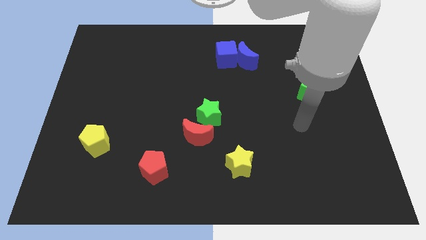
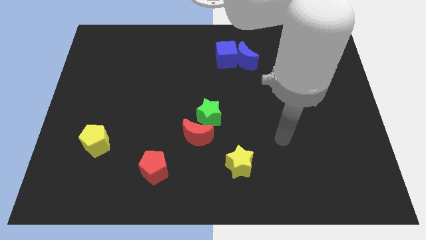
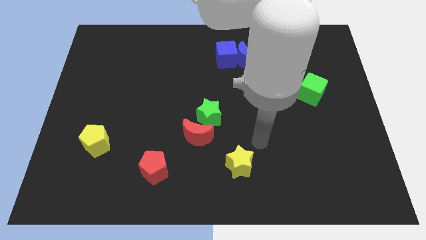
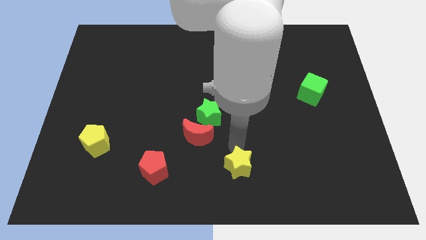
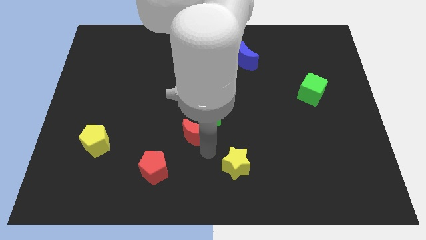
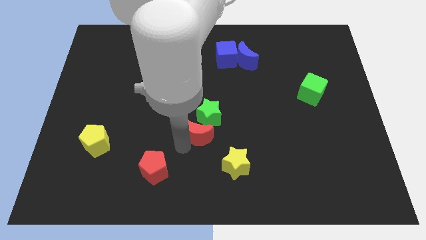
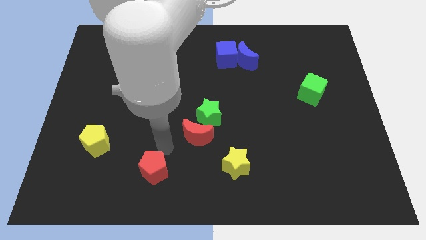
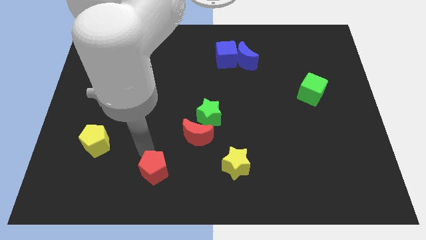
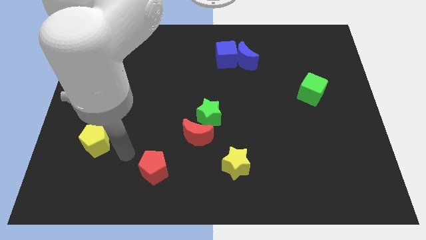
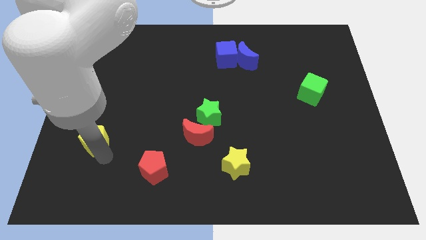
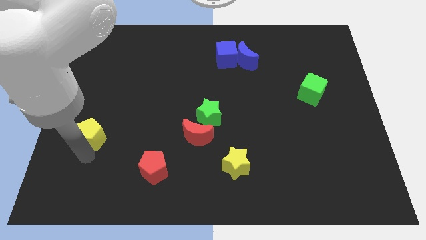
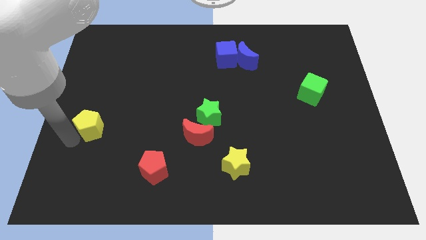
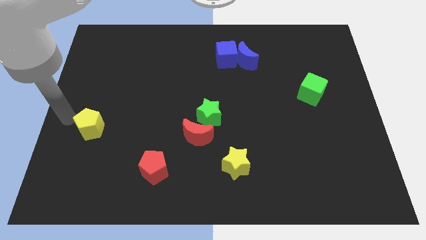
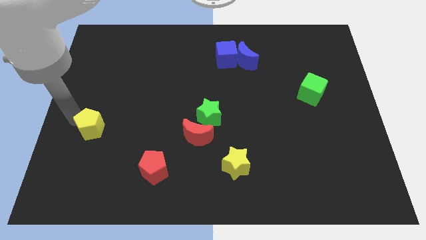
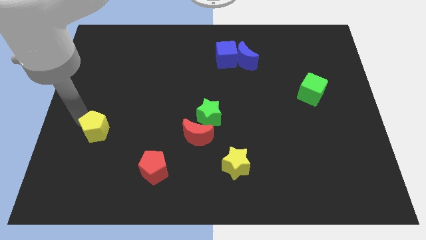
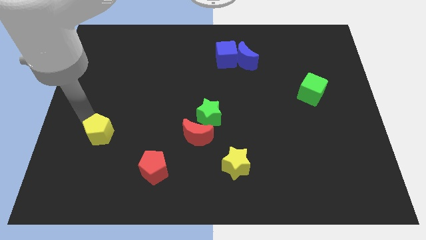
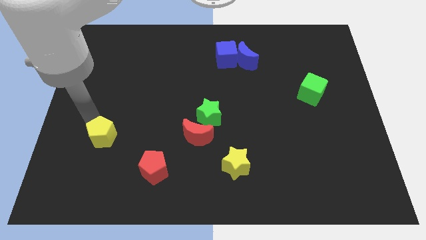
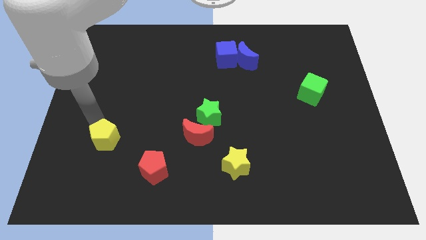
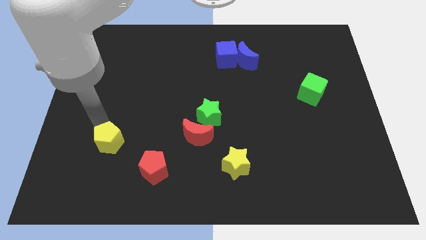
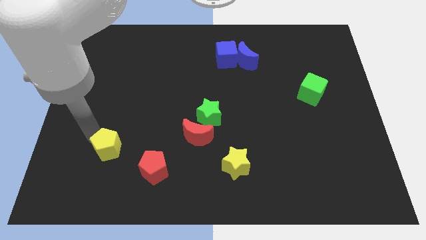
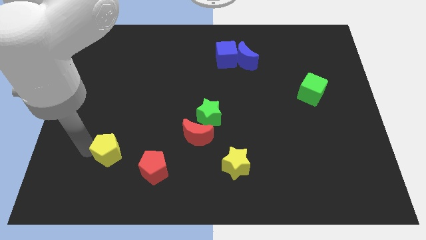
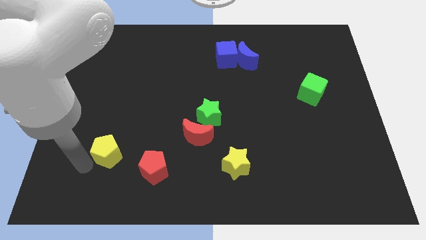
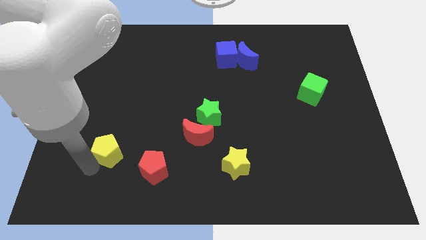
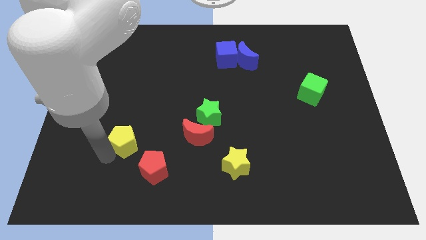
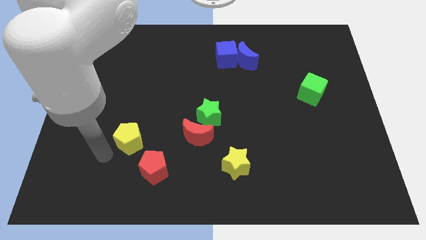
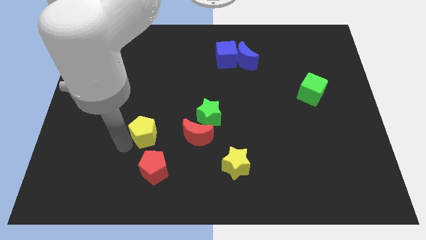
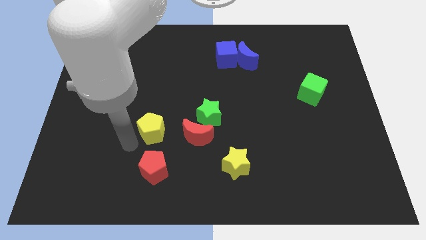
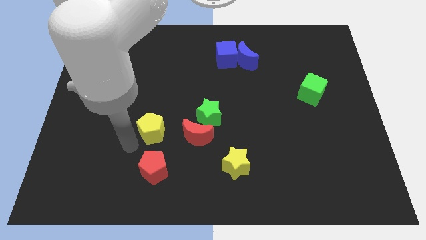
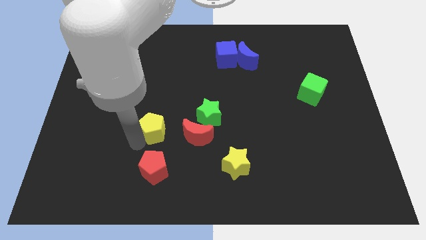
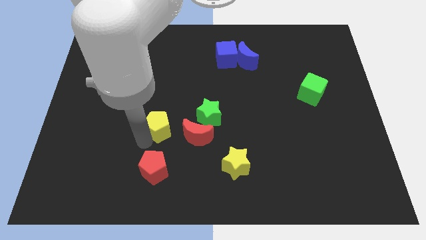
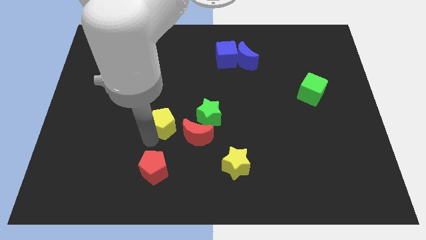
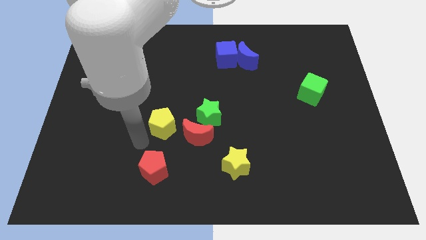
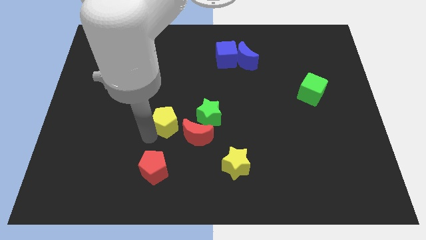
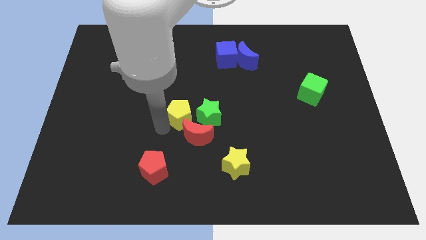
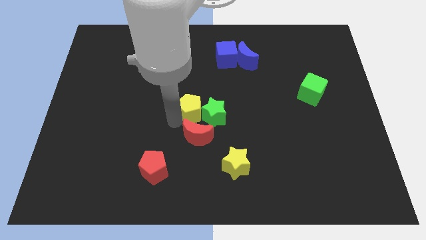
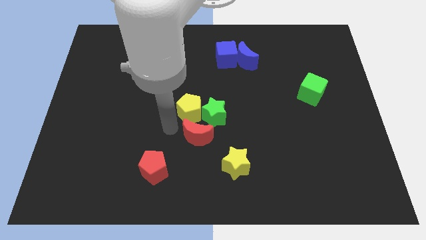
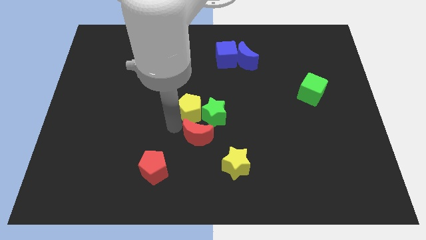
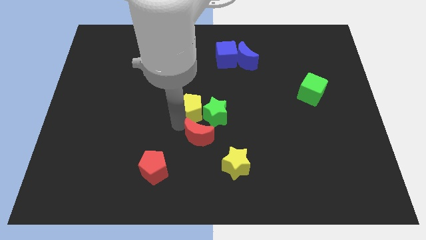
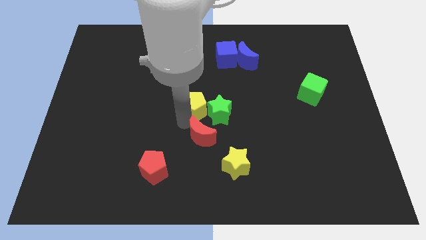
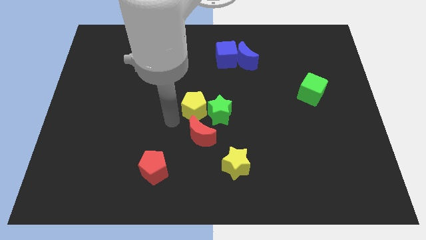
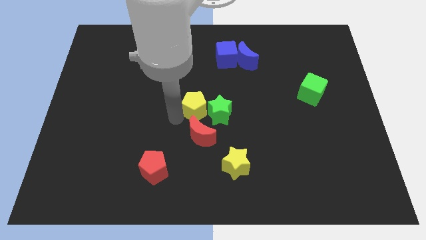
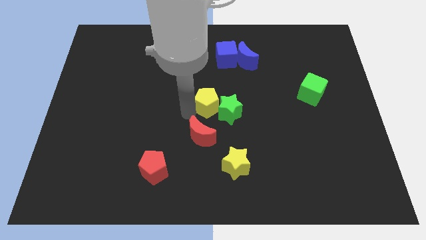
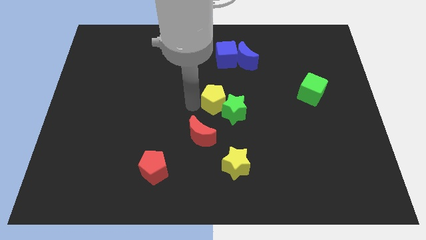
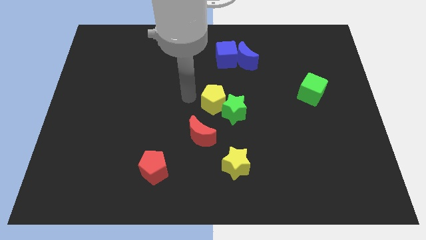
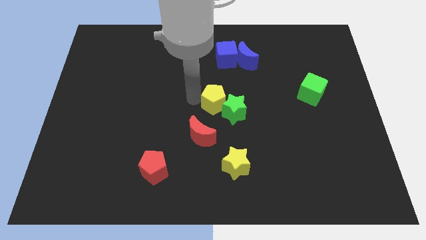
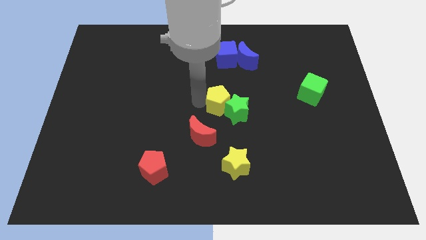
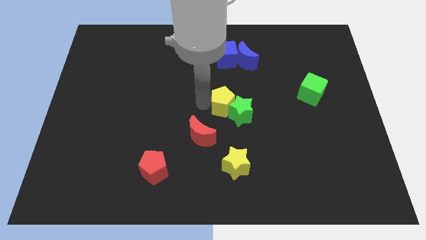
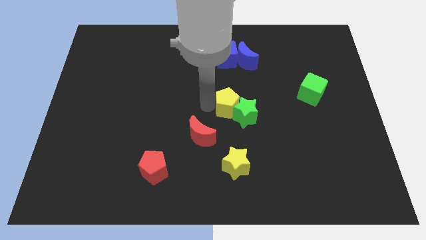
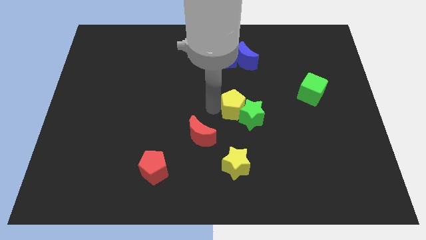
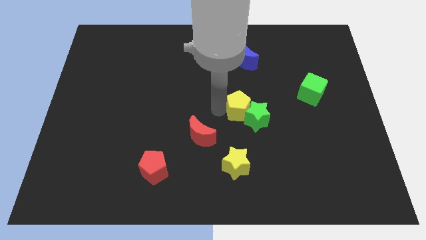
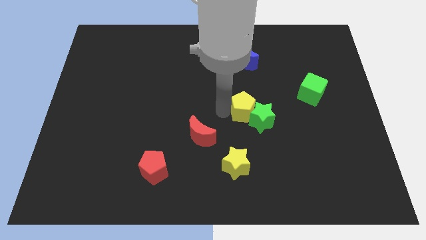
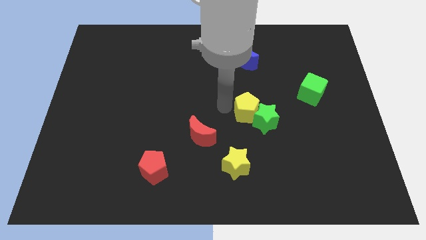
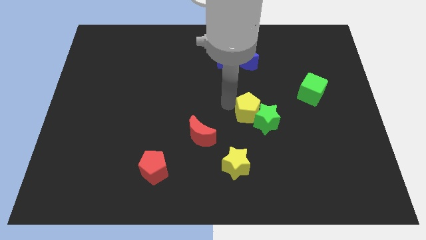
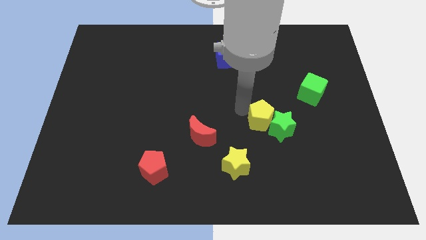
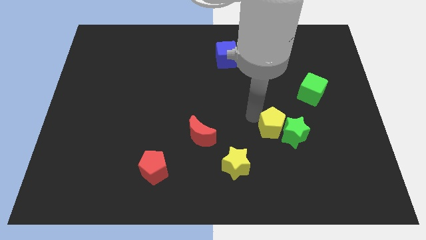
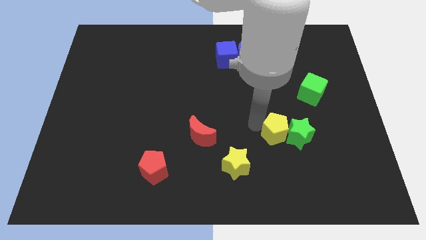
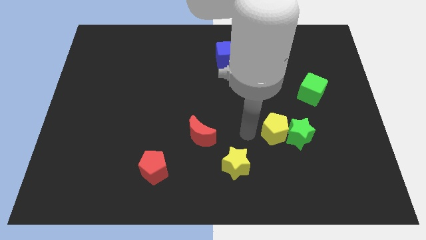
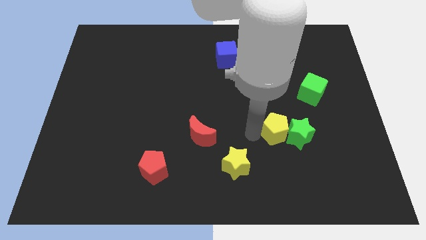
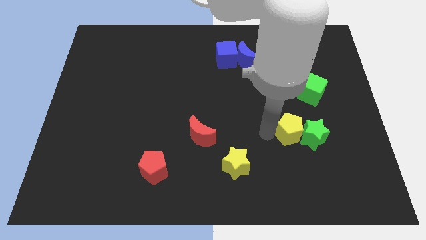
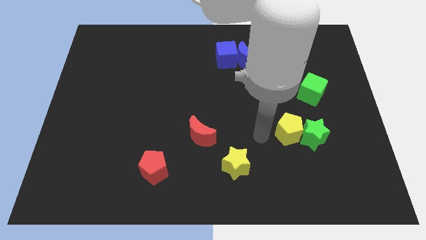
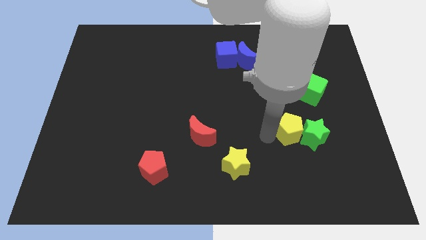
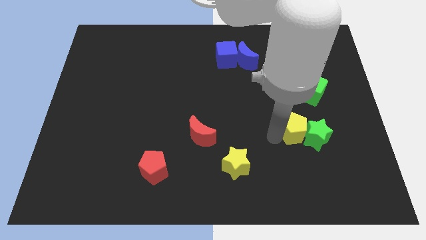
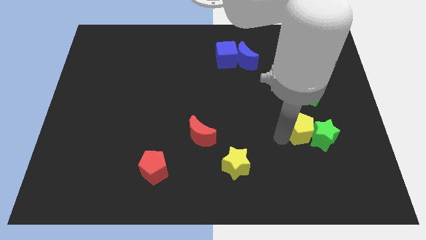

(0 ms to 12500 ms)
slide the yellow pentagon to the bottom of the green cube

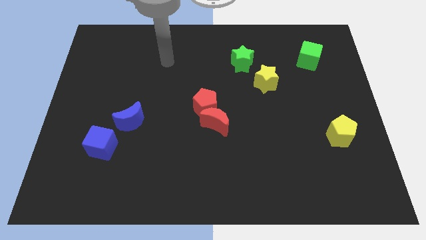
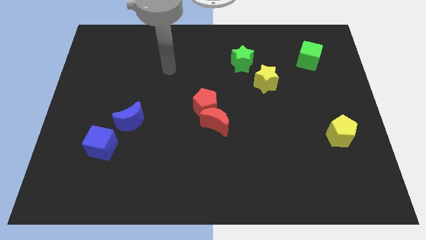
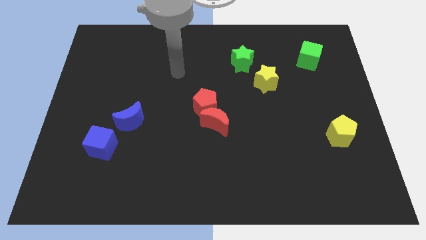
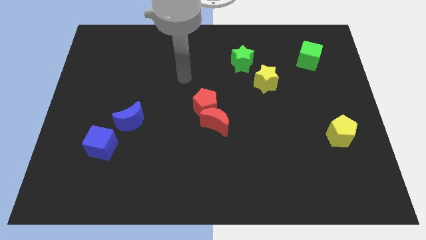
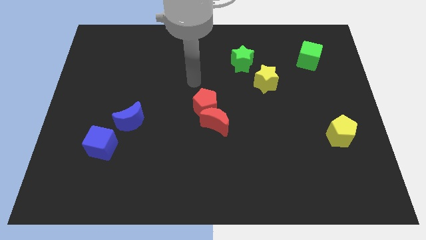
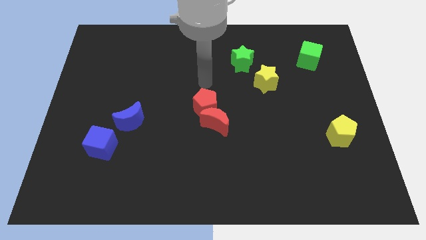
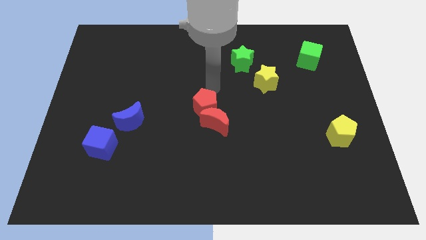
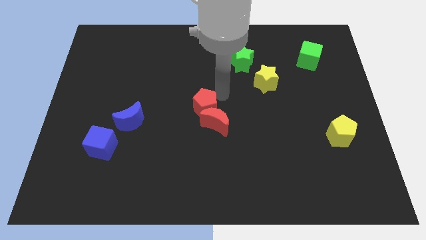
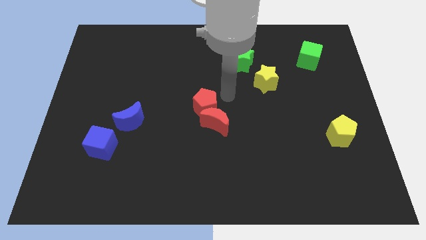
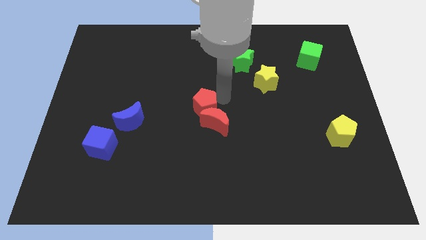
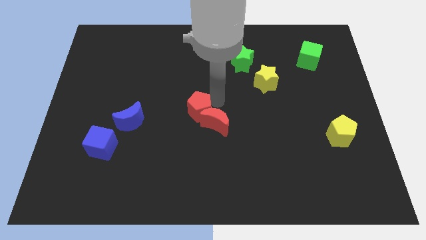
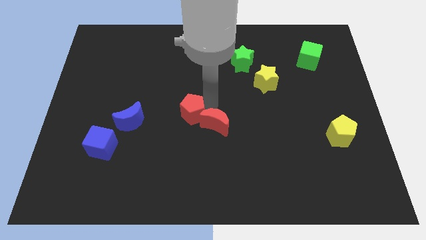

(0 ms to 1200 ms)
put the red pentagon to the right of the blue moon
